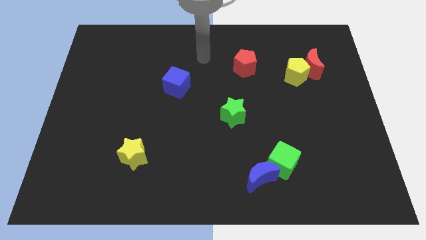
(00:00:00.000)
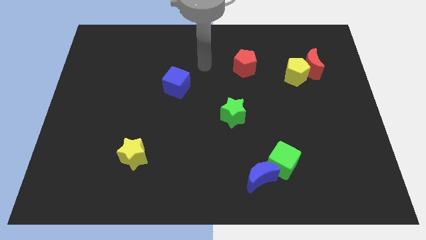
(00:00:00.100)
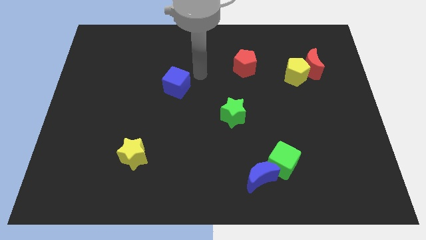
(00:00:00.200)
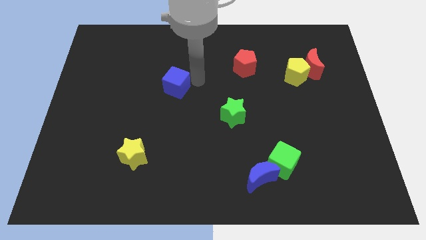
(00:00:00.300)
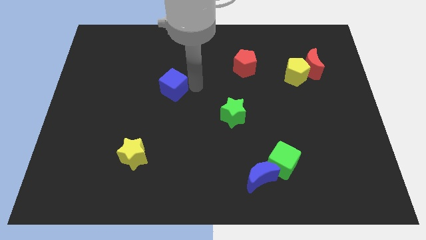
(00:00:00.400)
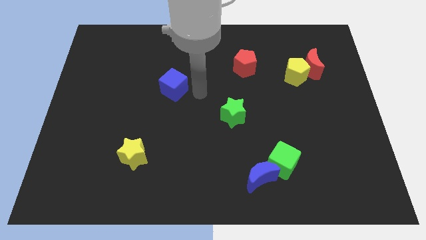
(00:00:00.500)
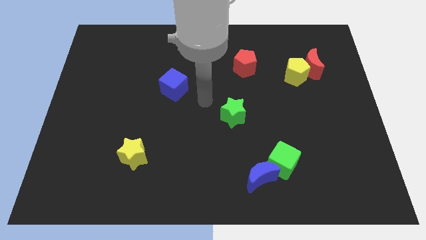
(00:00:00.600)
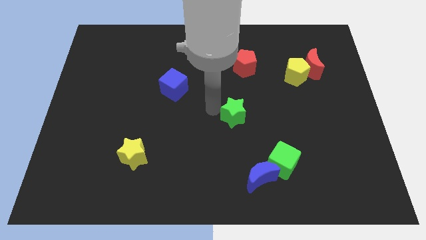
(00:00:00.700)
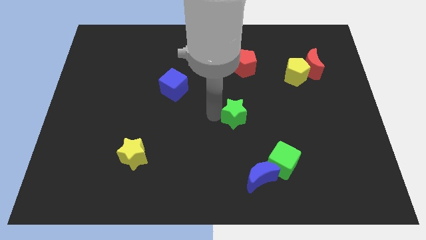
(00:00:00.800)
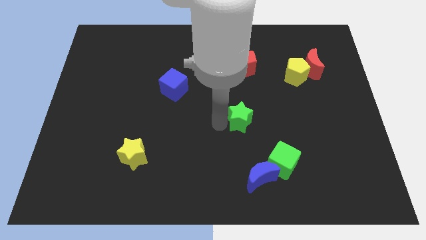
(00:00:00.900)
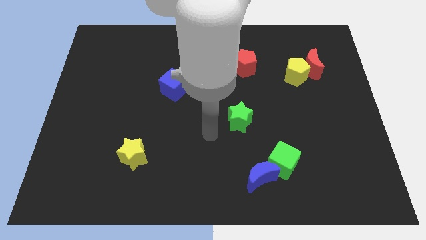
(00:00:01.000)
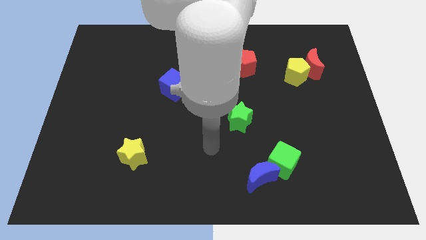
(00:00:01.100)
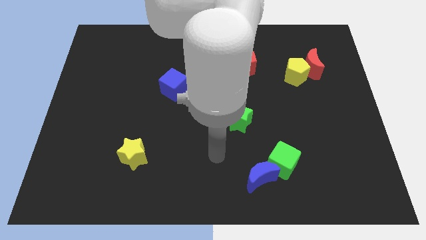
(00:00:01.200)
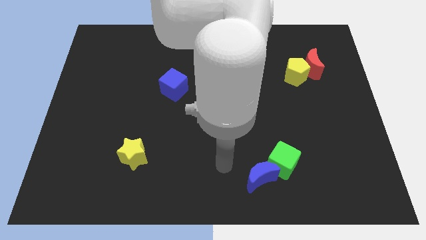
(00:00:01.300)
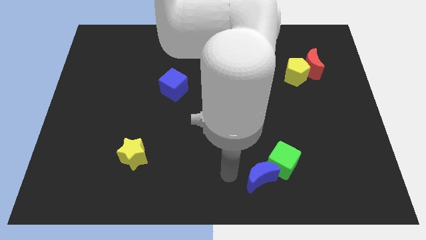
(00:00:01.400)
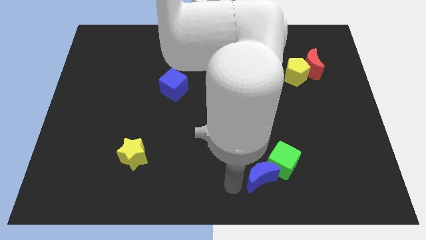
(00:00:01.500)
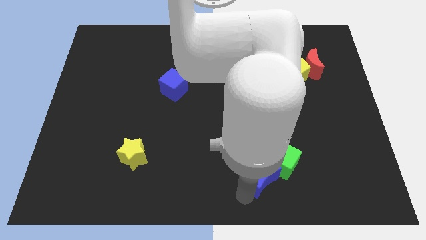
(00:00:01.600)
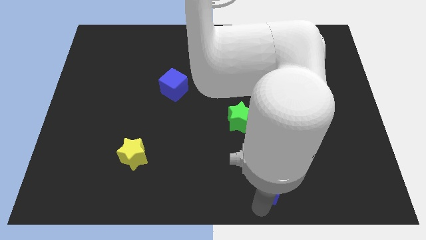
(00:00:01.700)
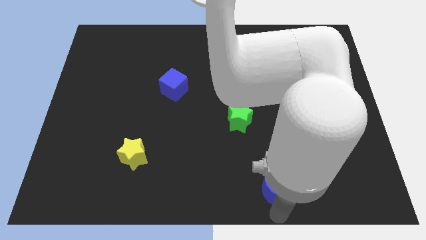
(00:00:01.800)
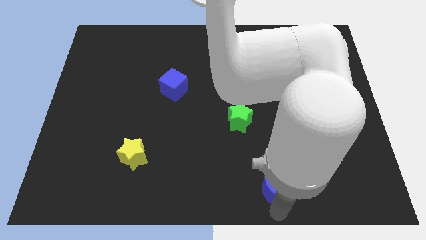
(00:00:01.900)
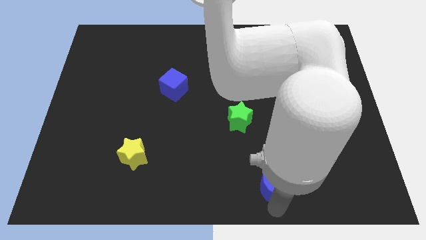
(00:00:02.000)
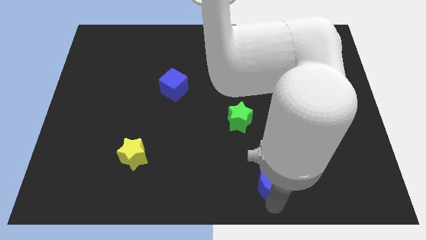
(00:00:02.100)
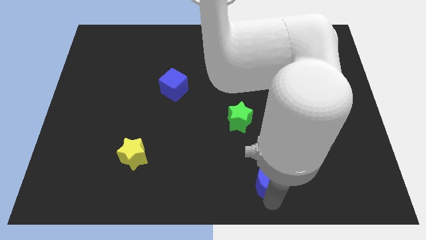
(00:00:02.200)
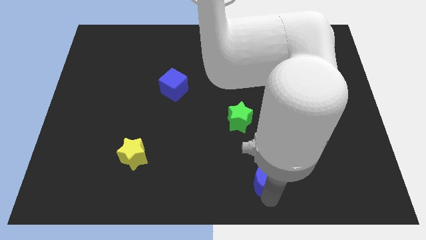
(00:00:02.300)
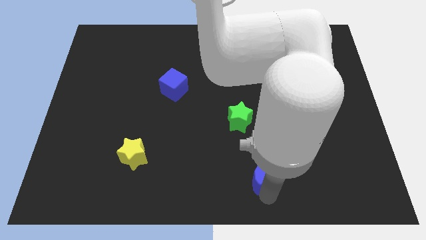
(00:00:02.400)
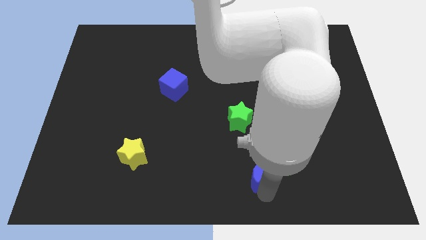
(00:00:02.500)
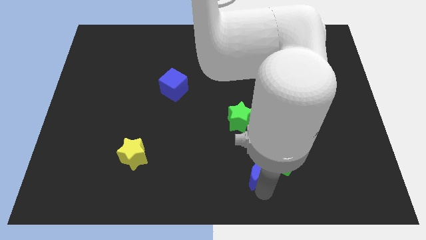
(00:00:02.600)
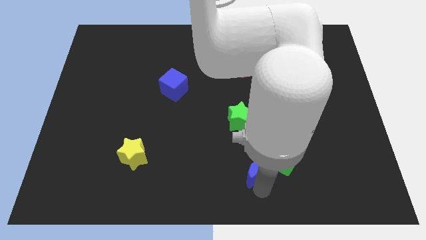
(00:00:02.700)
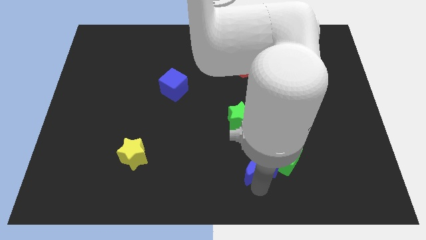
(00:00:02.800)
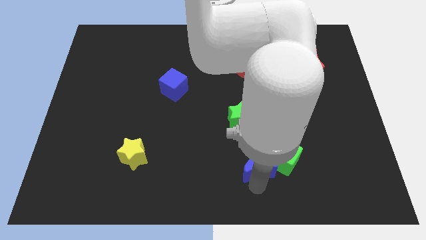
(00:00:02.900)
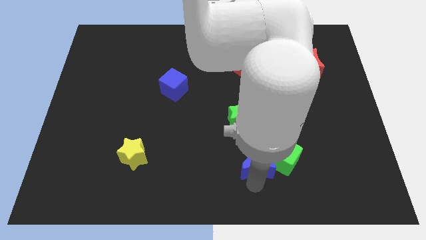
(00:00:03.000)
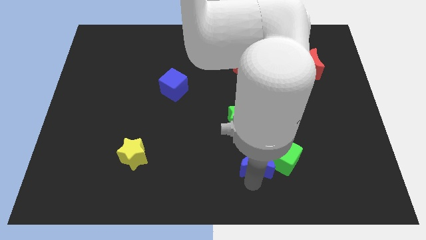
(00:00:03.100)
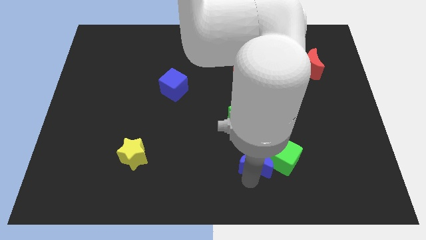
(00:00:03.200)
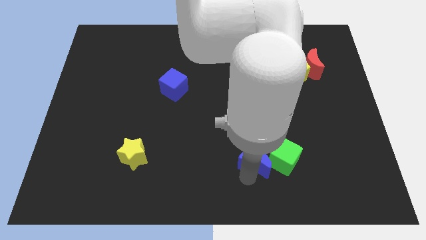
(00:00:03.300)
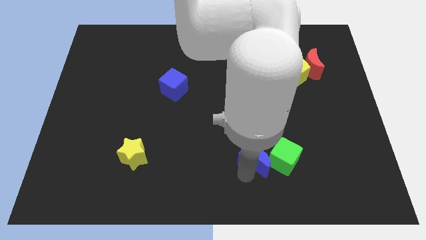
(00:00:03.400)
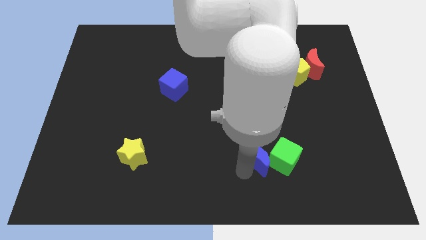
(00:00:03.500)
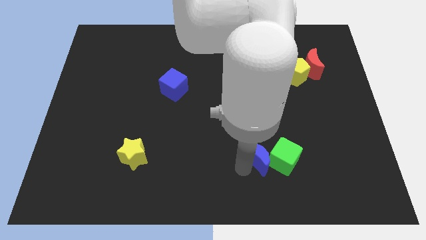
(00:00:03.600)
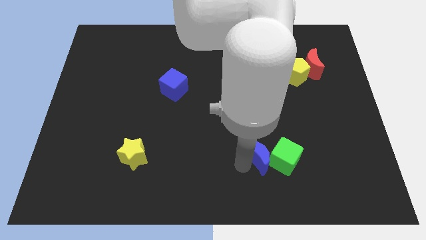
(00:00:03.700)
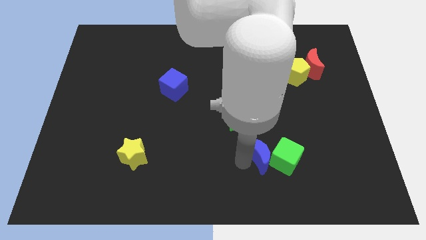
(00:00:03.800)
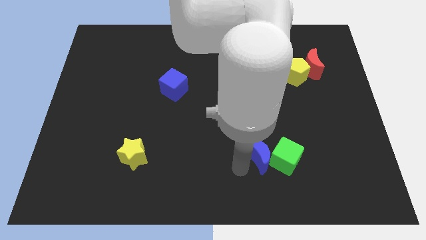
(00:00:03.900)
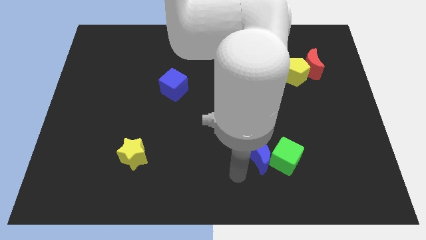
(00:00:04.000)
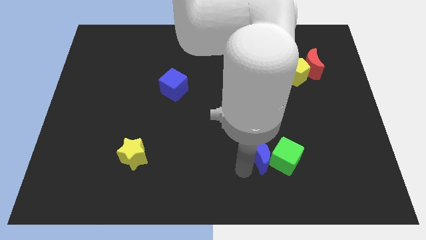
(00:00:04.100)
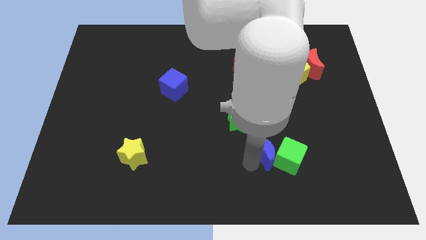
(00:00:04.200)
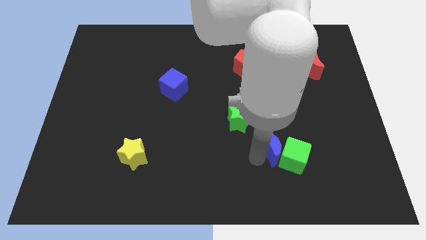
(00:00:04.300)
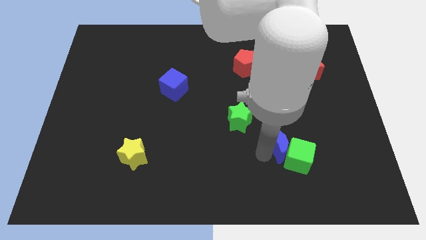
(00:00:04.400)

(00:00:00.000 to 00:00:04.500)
move the blue moon somewhat up and to the right

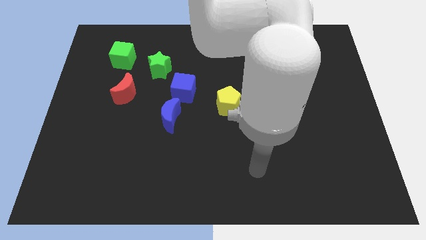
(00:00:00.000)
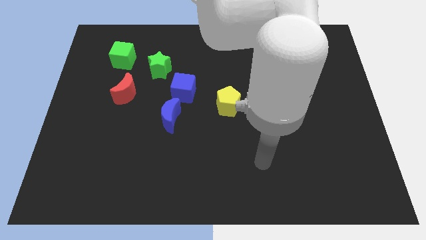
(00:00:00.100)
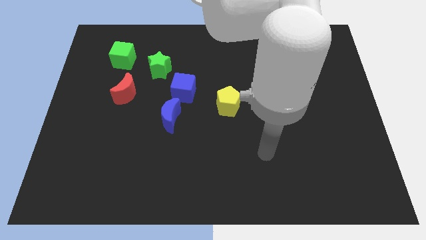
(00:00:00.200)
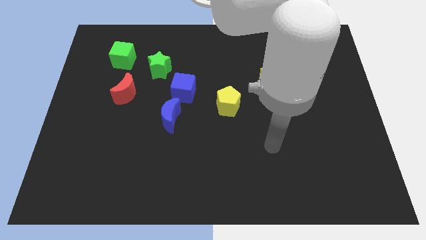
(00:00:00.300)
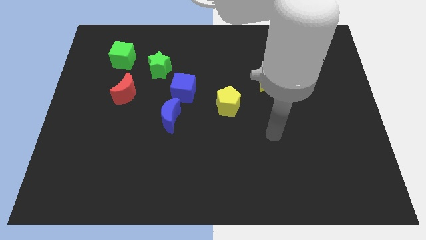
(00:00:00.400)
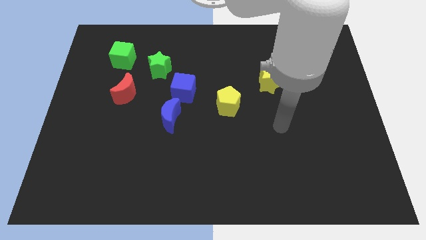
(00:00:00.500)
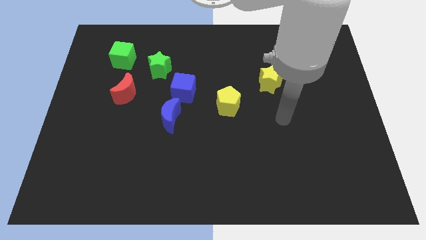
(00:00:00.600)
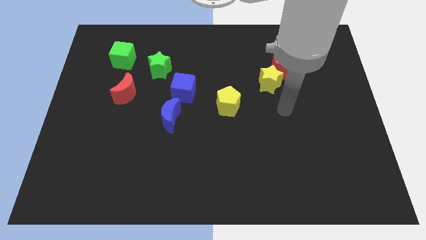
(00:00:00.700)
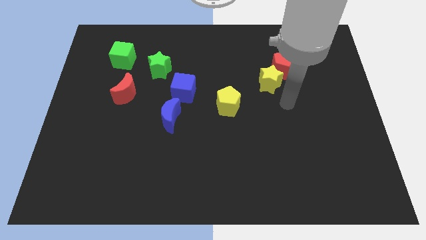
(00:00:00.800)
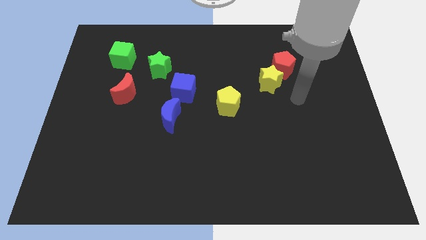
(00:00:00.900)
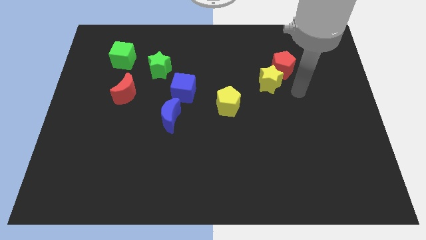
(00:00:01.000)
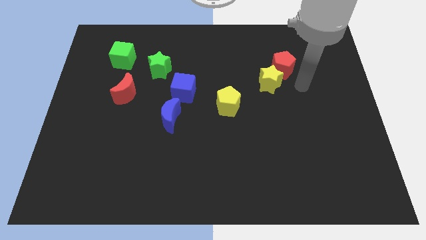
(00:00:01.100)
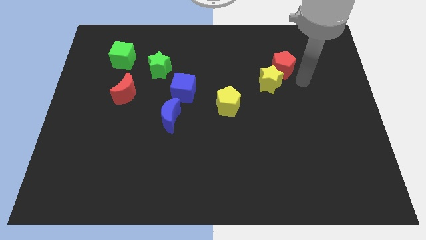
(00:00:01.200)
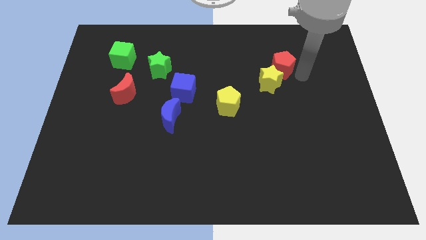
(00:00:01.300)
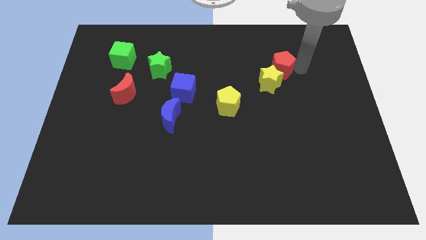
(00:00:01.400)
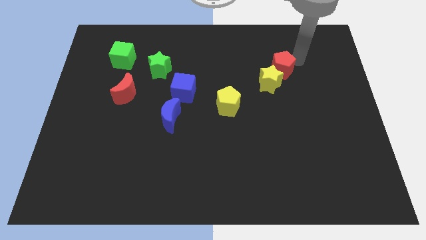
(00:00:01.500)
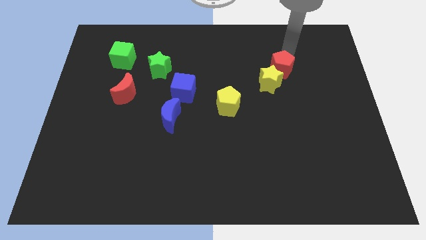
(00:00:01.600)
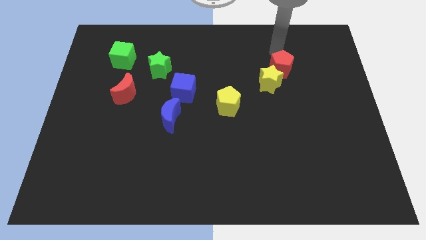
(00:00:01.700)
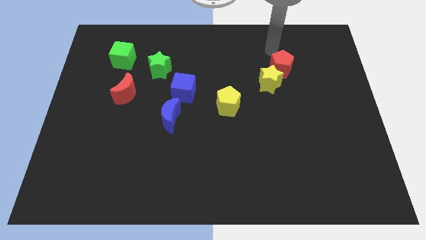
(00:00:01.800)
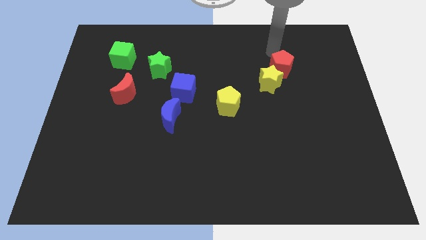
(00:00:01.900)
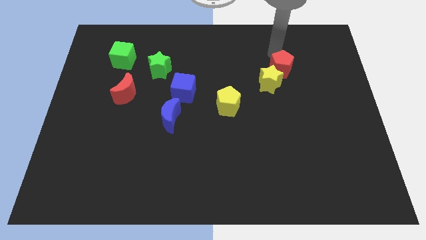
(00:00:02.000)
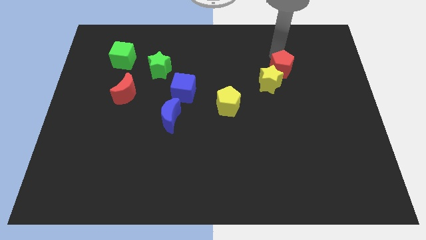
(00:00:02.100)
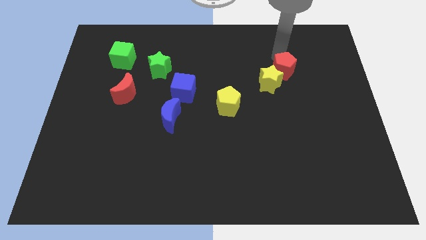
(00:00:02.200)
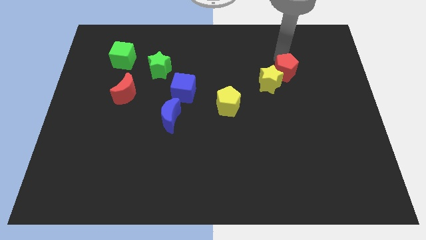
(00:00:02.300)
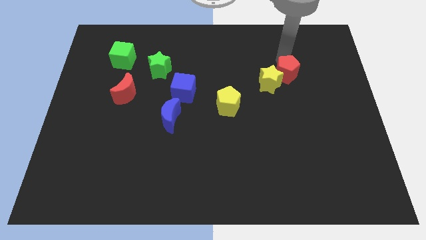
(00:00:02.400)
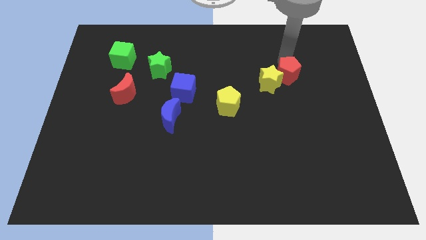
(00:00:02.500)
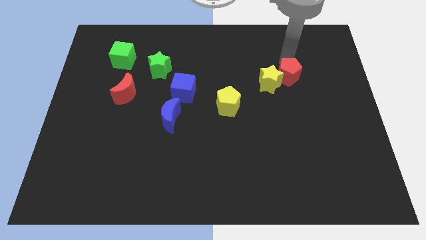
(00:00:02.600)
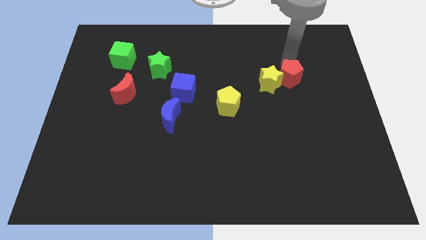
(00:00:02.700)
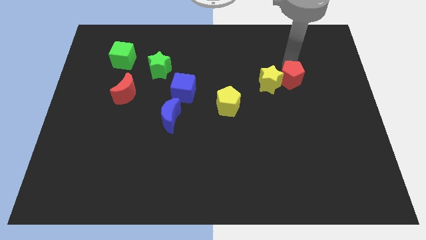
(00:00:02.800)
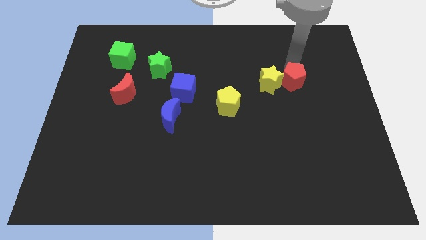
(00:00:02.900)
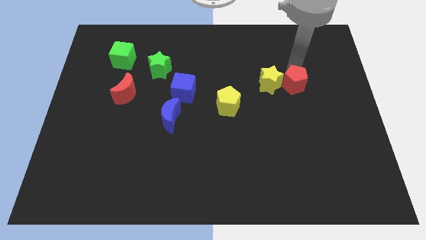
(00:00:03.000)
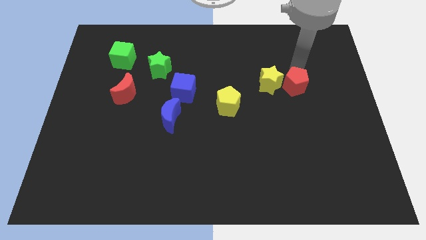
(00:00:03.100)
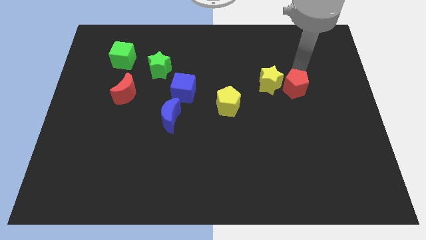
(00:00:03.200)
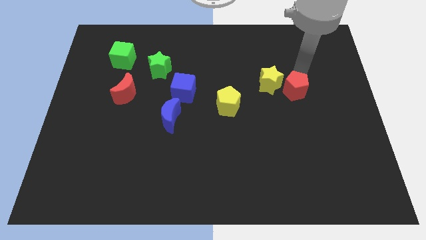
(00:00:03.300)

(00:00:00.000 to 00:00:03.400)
push the red pentagon a bit down

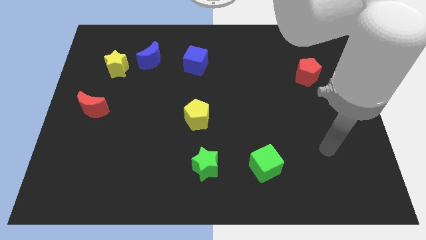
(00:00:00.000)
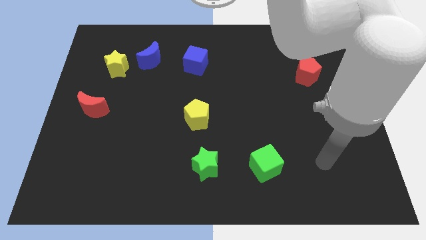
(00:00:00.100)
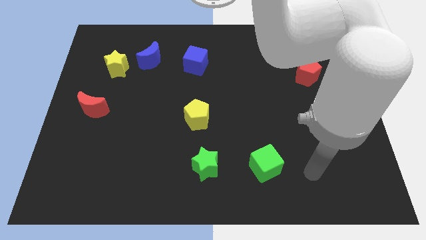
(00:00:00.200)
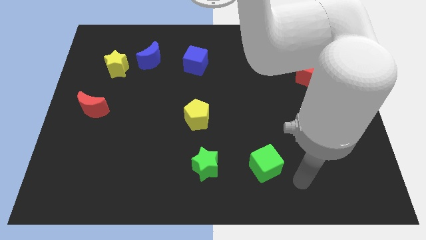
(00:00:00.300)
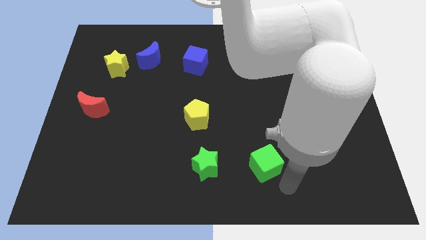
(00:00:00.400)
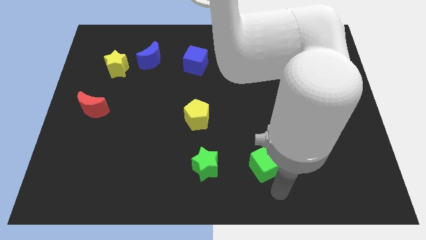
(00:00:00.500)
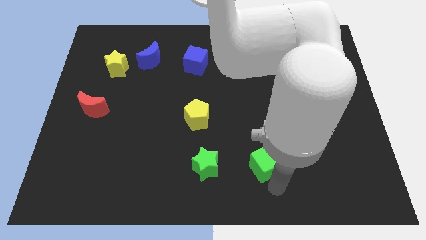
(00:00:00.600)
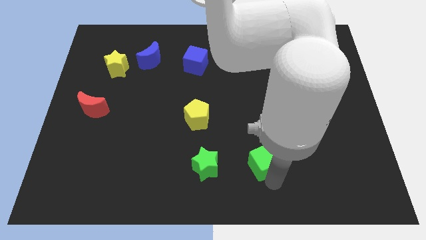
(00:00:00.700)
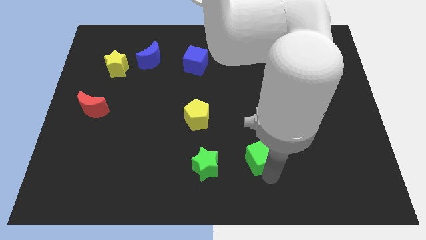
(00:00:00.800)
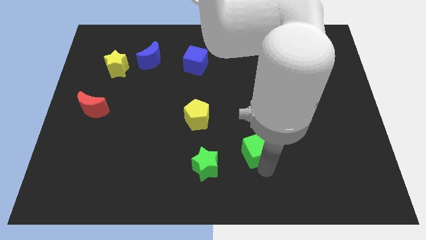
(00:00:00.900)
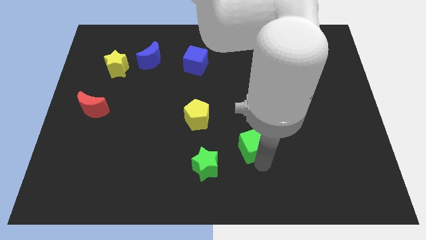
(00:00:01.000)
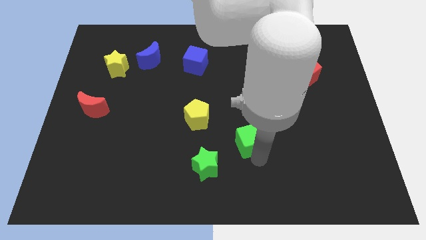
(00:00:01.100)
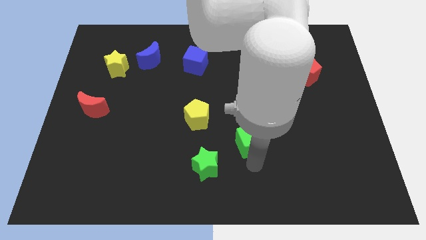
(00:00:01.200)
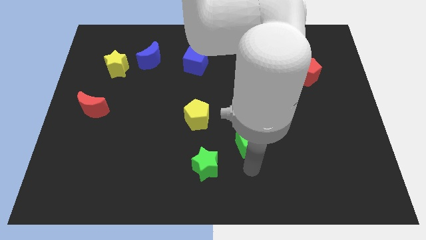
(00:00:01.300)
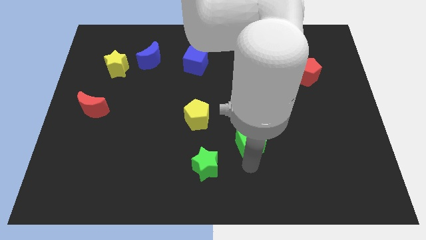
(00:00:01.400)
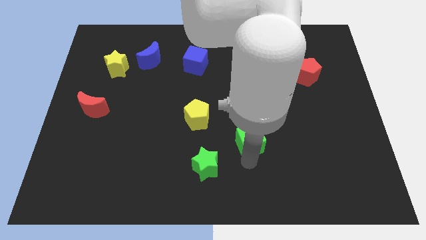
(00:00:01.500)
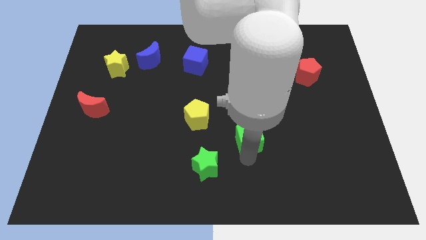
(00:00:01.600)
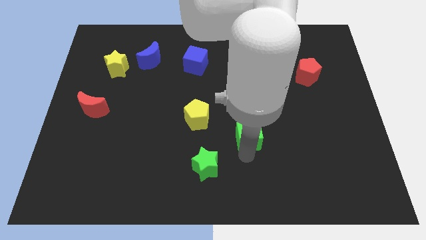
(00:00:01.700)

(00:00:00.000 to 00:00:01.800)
slide the green cube a little bit upwards
